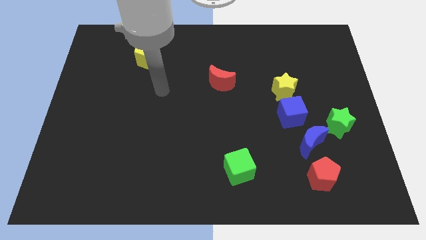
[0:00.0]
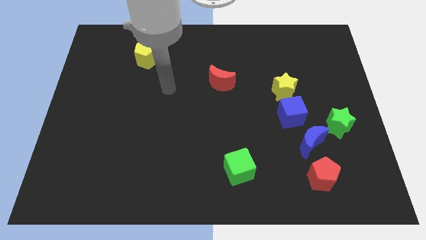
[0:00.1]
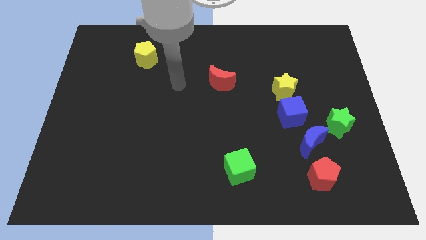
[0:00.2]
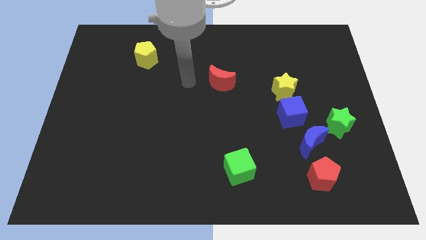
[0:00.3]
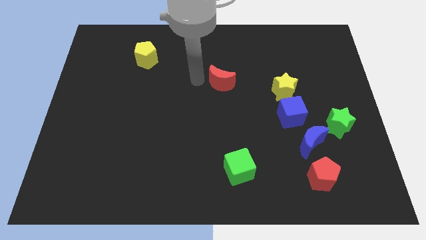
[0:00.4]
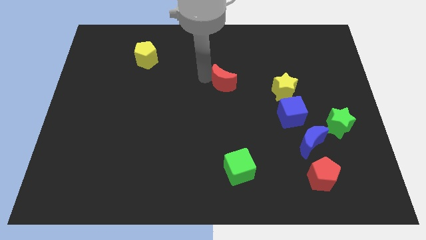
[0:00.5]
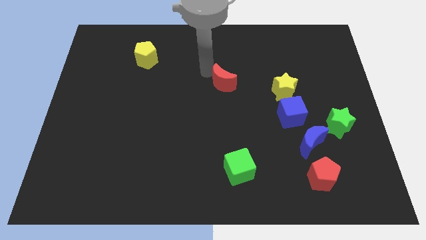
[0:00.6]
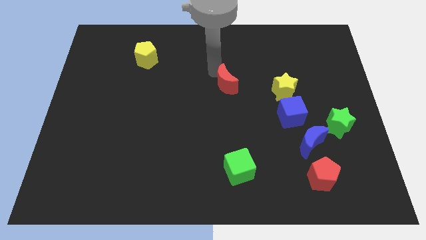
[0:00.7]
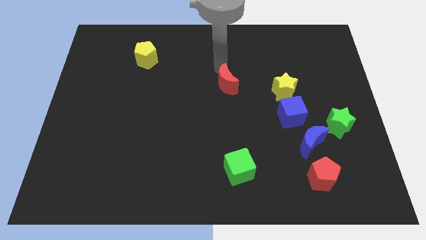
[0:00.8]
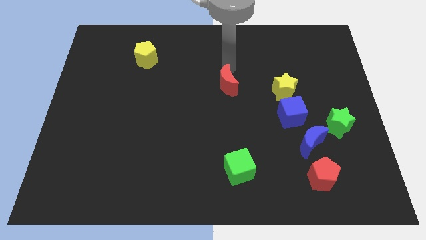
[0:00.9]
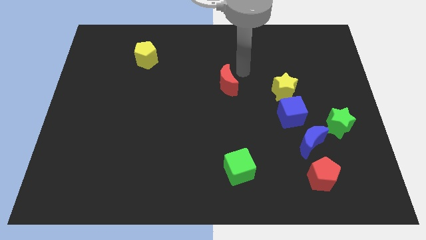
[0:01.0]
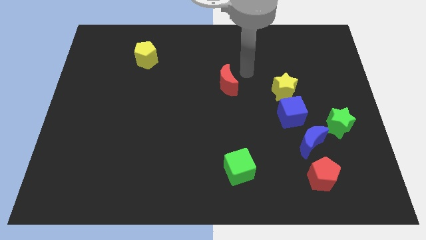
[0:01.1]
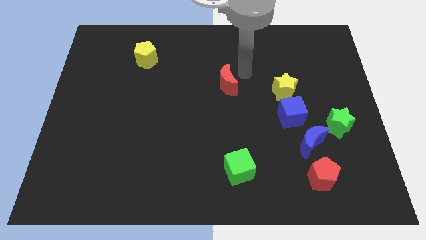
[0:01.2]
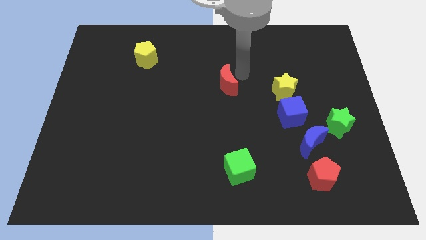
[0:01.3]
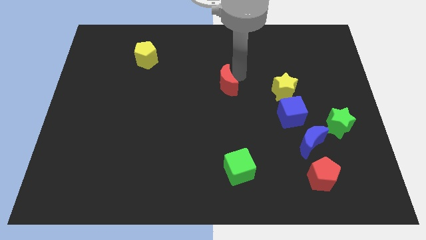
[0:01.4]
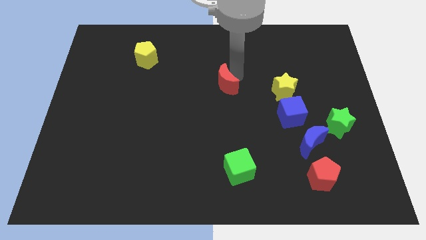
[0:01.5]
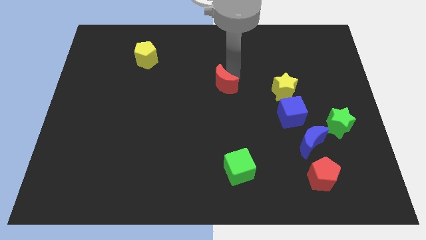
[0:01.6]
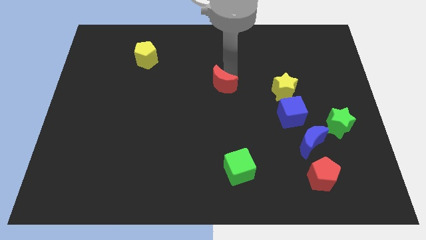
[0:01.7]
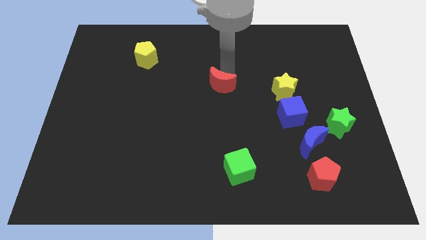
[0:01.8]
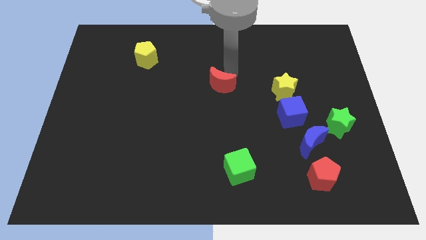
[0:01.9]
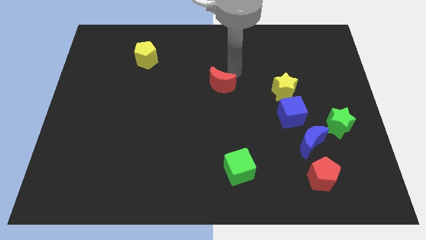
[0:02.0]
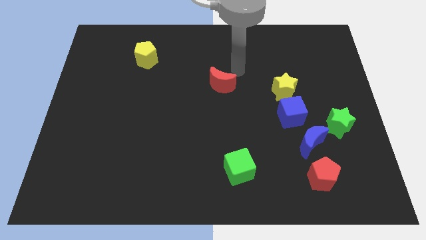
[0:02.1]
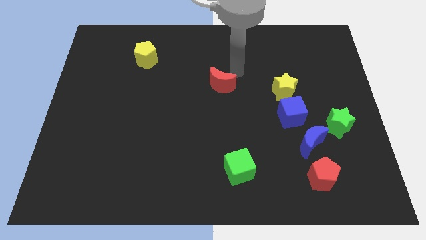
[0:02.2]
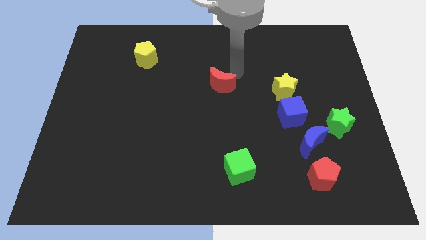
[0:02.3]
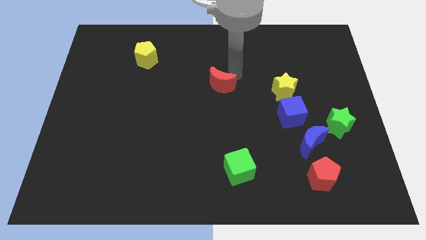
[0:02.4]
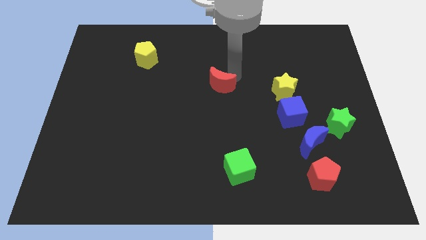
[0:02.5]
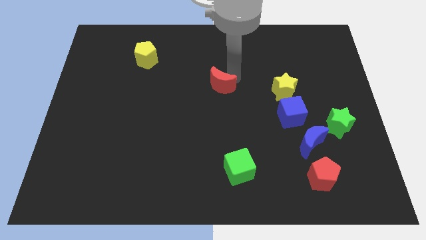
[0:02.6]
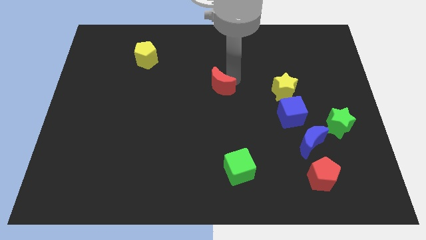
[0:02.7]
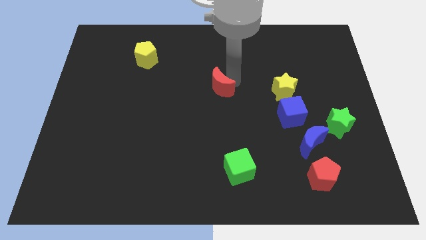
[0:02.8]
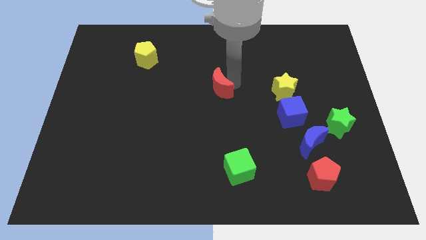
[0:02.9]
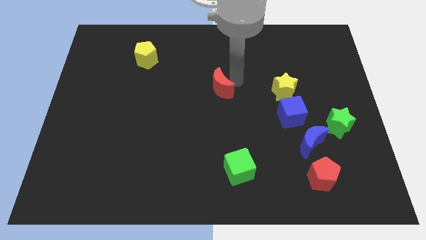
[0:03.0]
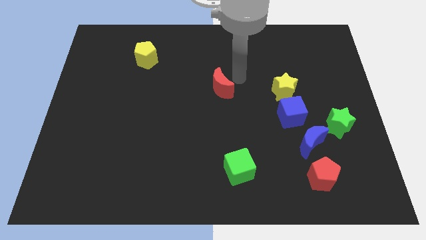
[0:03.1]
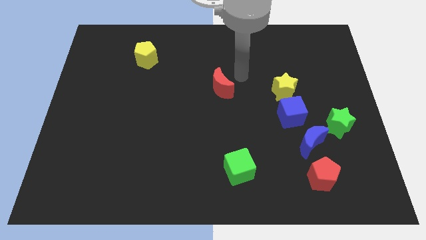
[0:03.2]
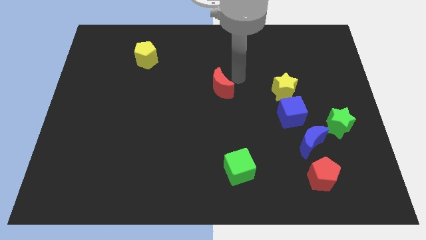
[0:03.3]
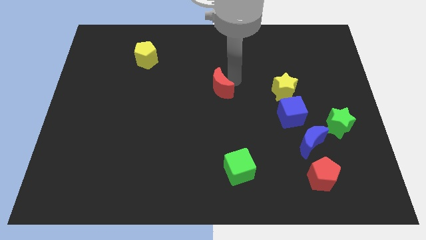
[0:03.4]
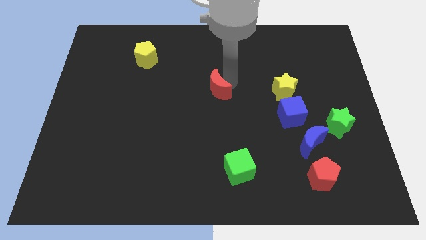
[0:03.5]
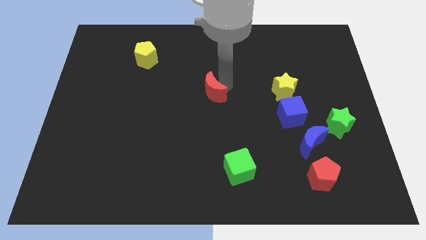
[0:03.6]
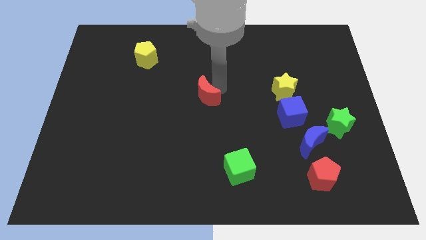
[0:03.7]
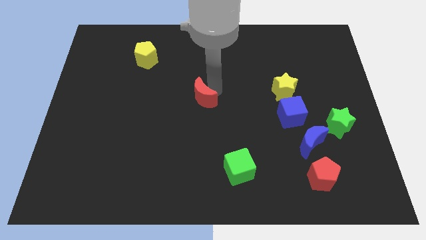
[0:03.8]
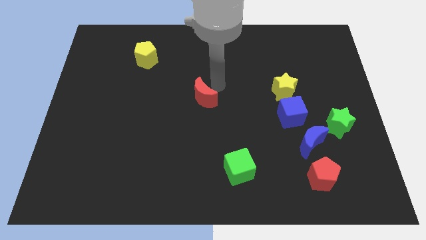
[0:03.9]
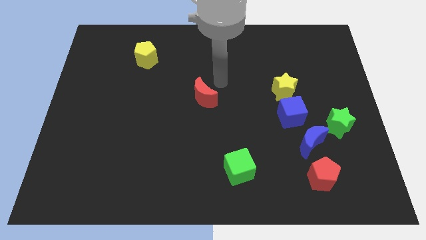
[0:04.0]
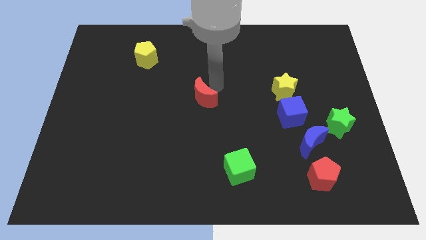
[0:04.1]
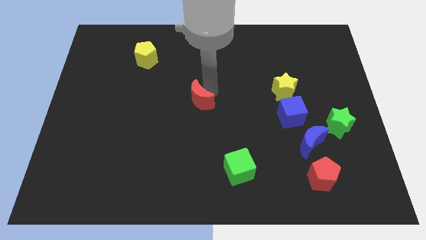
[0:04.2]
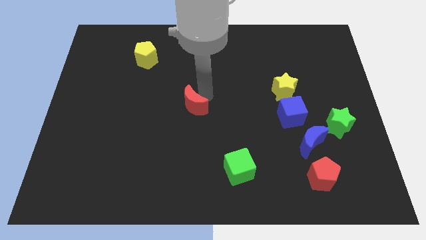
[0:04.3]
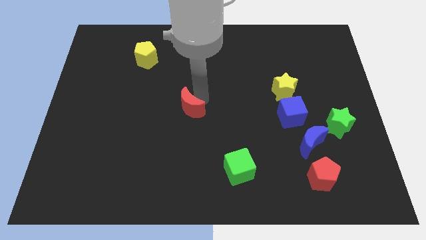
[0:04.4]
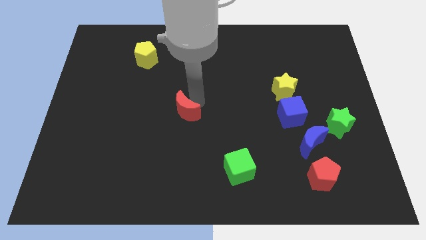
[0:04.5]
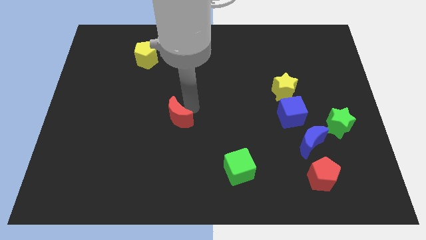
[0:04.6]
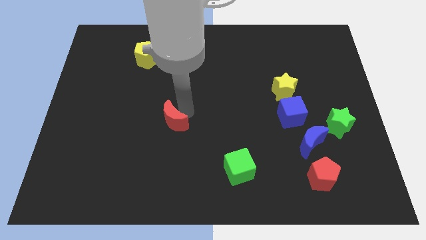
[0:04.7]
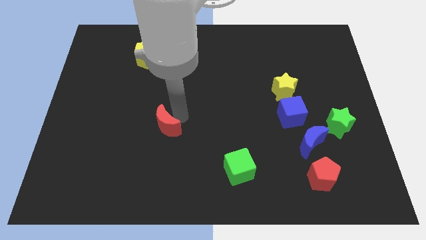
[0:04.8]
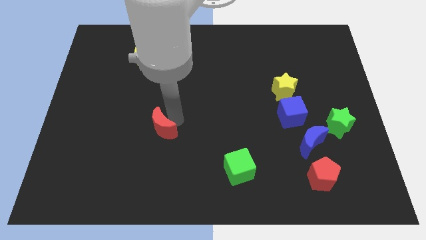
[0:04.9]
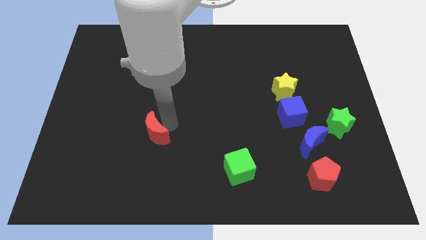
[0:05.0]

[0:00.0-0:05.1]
slide the red moon downwards and left

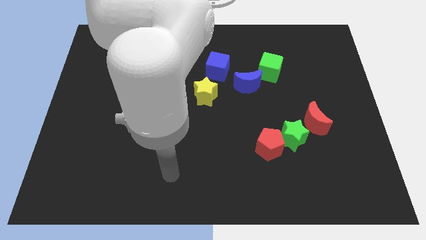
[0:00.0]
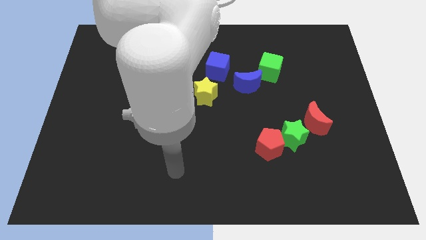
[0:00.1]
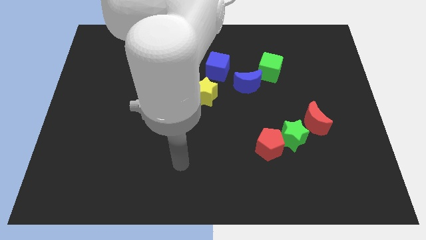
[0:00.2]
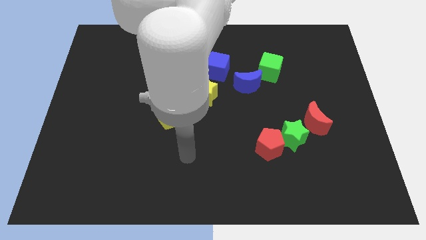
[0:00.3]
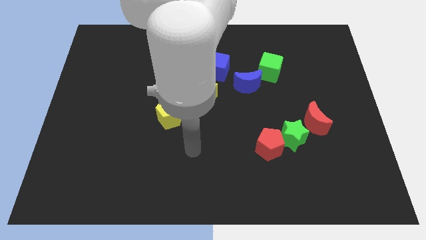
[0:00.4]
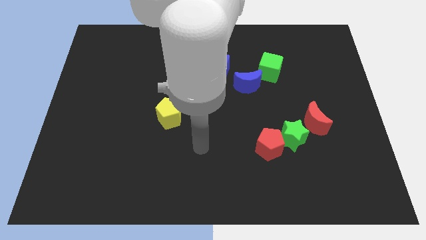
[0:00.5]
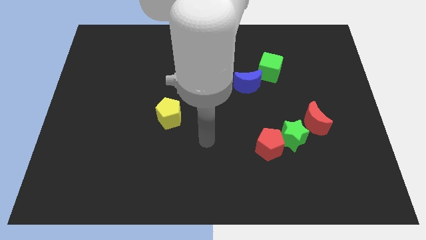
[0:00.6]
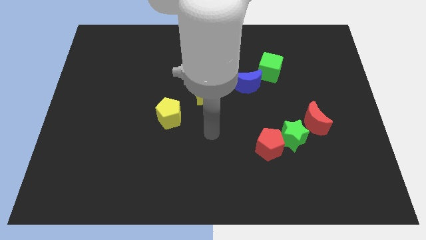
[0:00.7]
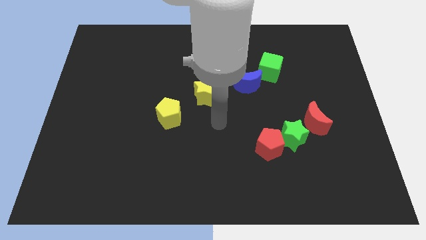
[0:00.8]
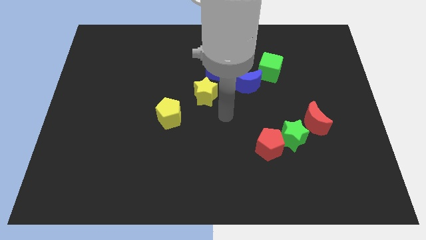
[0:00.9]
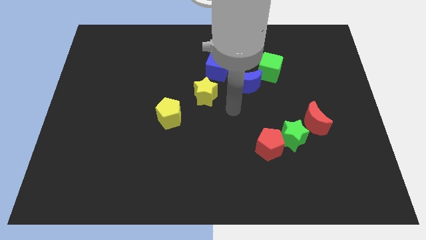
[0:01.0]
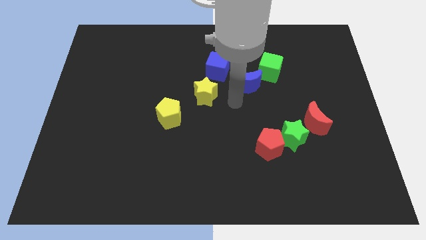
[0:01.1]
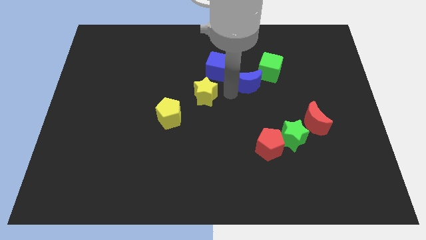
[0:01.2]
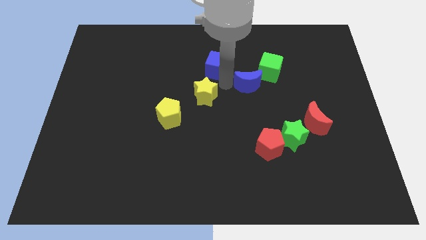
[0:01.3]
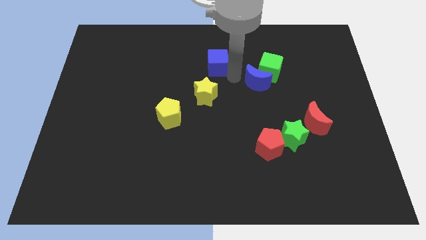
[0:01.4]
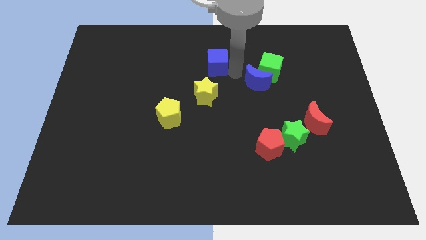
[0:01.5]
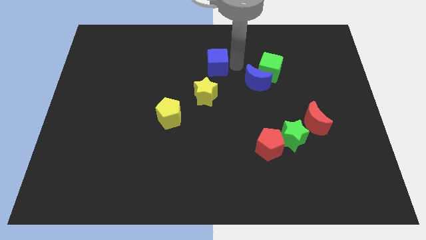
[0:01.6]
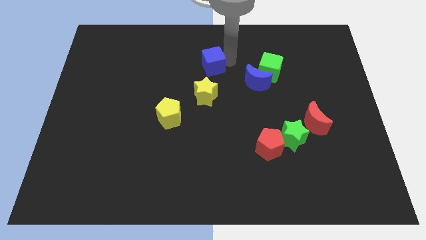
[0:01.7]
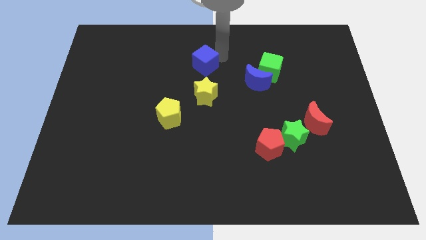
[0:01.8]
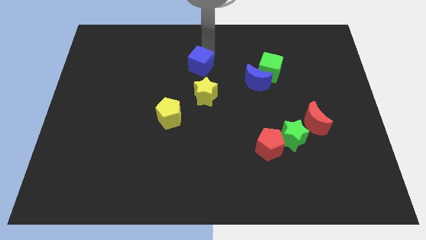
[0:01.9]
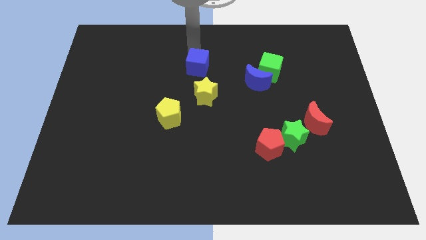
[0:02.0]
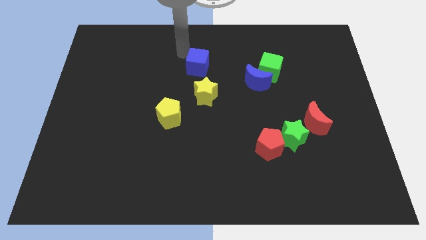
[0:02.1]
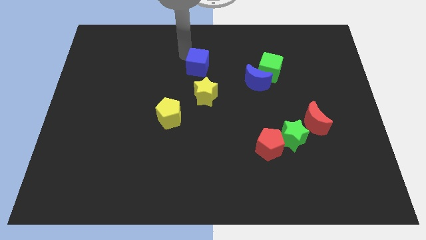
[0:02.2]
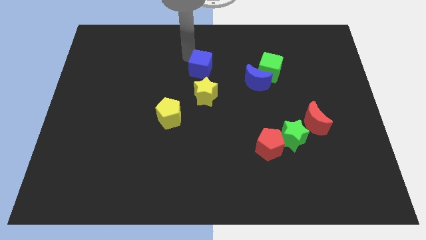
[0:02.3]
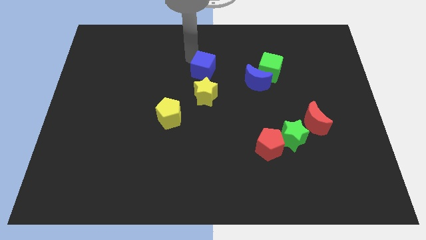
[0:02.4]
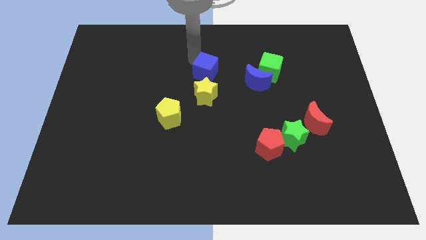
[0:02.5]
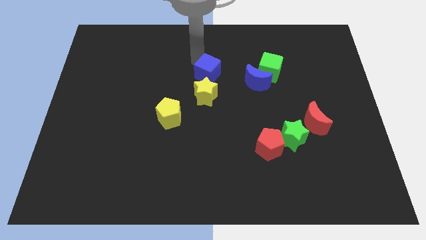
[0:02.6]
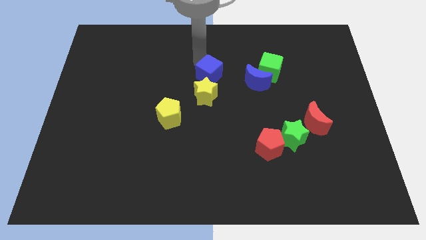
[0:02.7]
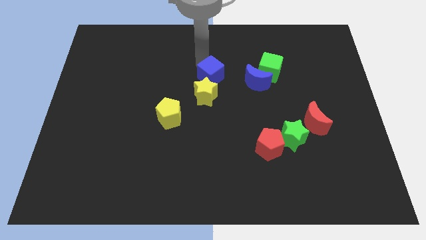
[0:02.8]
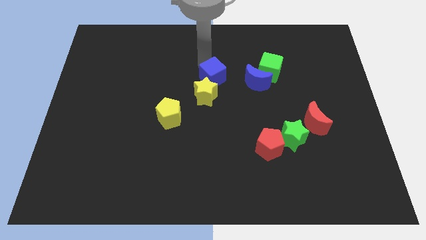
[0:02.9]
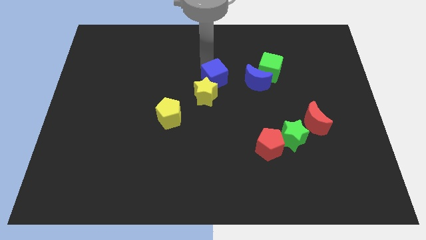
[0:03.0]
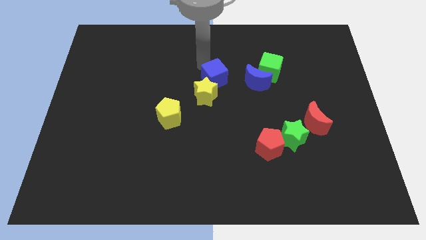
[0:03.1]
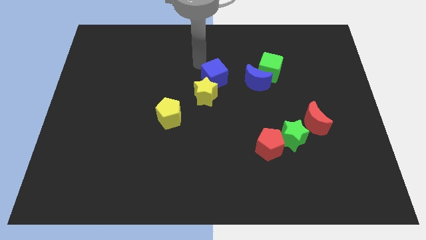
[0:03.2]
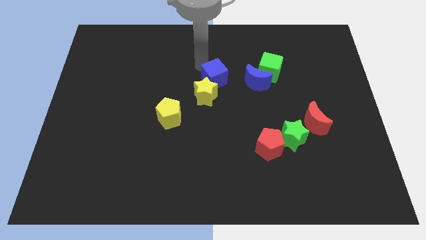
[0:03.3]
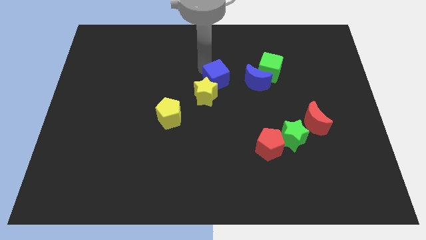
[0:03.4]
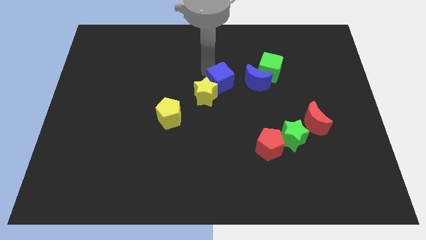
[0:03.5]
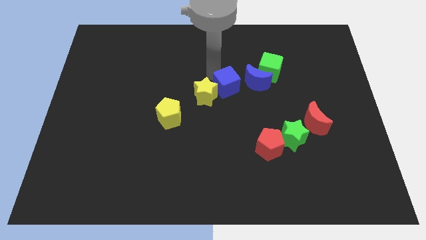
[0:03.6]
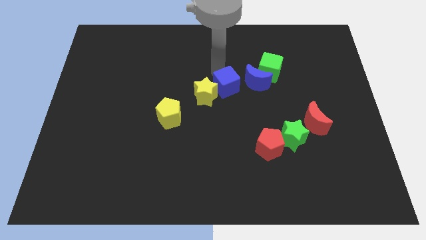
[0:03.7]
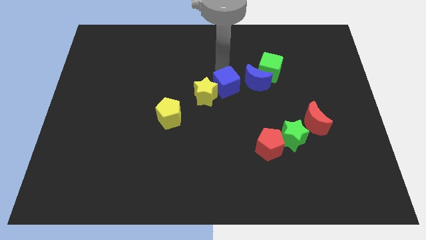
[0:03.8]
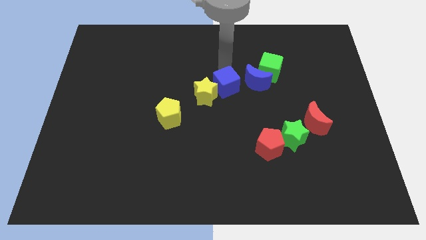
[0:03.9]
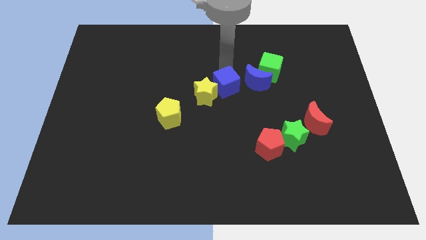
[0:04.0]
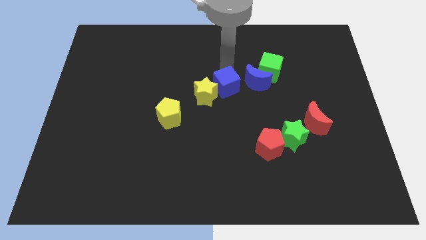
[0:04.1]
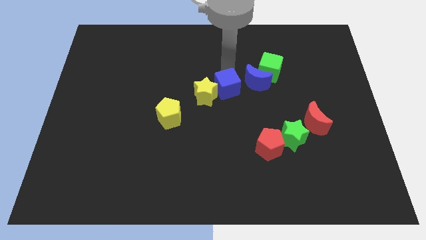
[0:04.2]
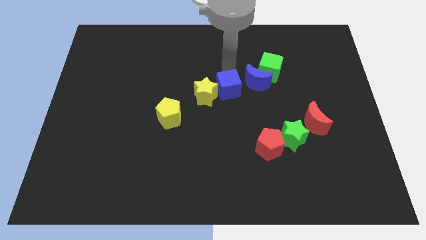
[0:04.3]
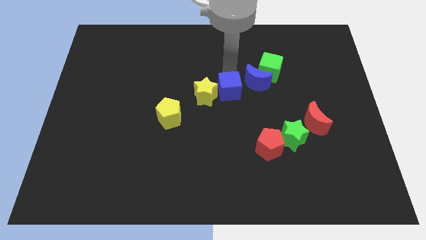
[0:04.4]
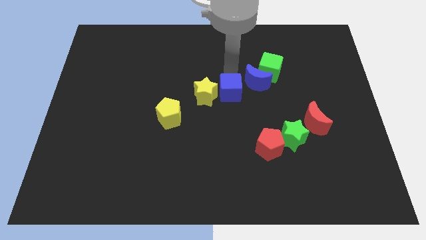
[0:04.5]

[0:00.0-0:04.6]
move the blue cube somewhat down
